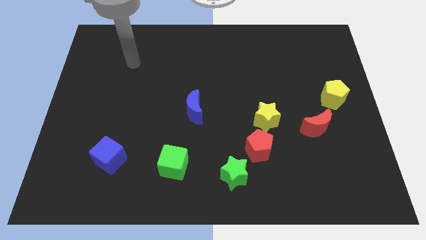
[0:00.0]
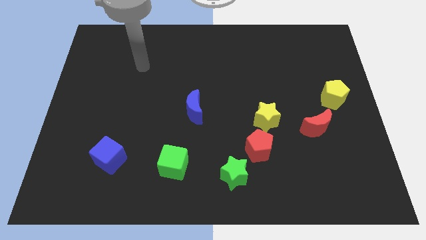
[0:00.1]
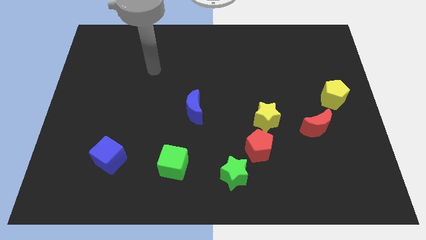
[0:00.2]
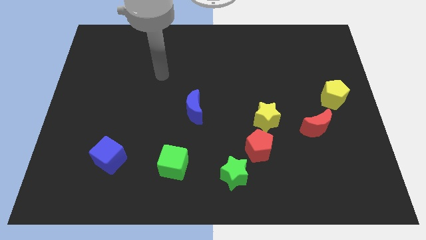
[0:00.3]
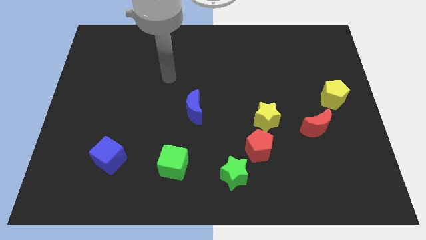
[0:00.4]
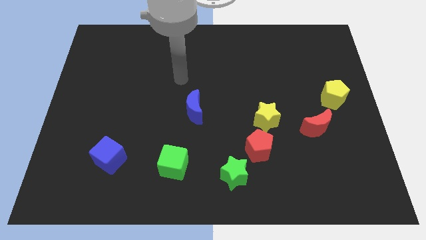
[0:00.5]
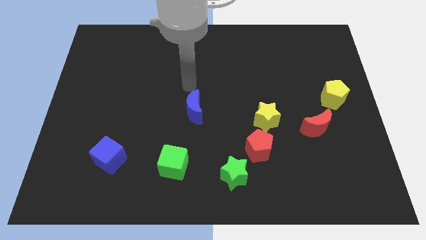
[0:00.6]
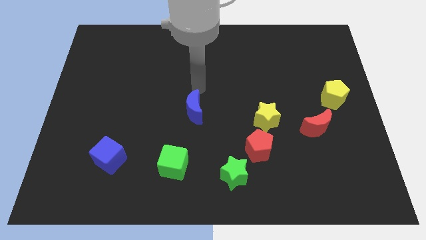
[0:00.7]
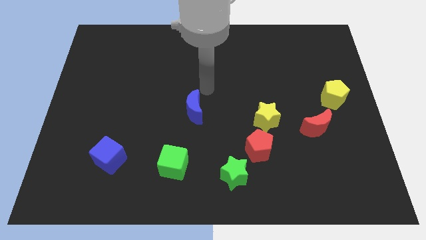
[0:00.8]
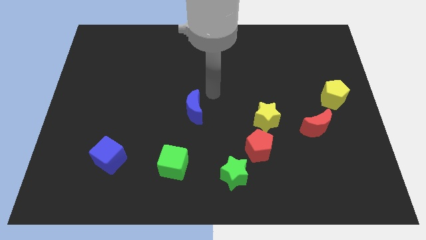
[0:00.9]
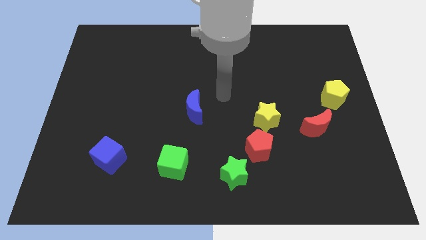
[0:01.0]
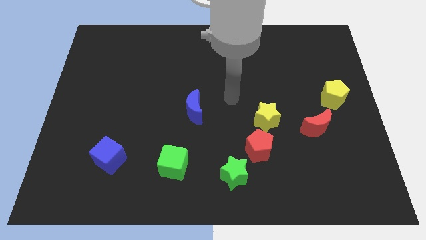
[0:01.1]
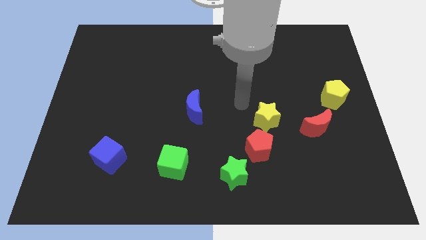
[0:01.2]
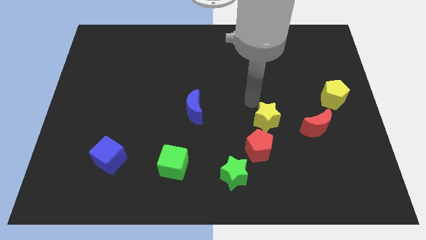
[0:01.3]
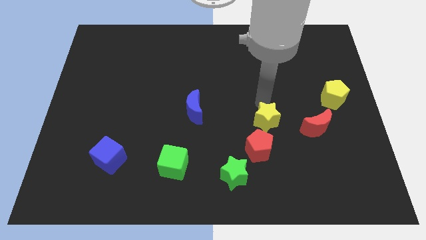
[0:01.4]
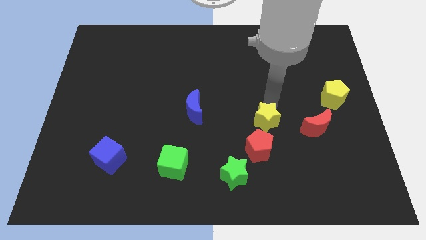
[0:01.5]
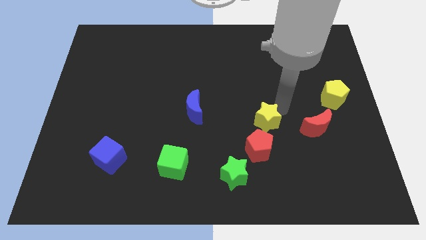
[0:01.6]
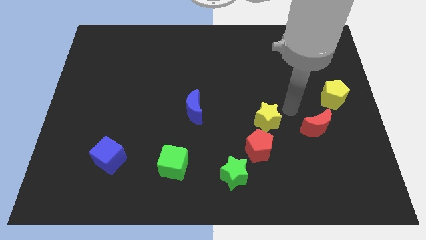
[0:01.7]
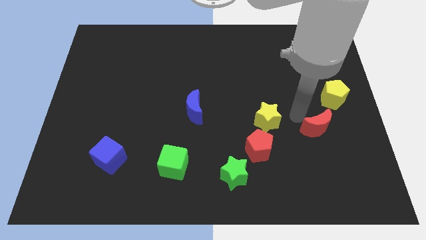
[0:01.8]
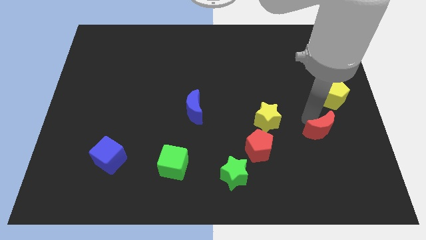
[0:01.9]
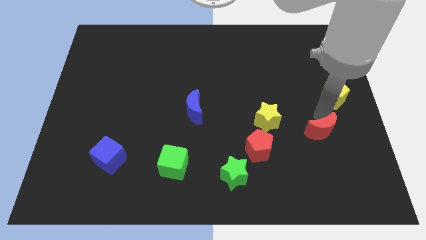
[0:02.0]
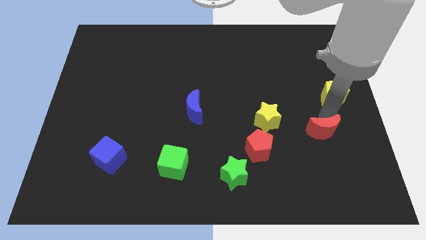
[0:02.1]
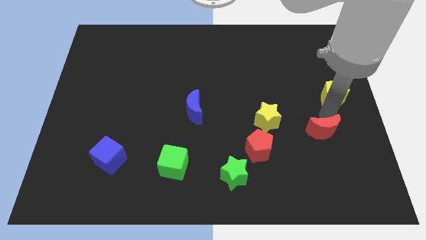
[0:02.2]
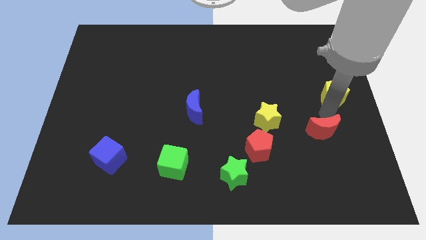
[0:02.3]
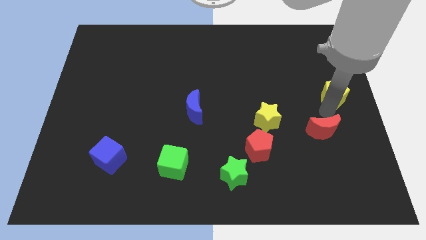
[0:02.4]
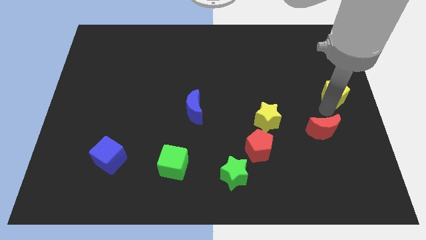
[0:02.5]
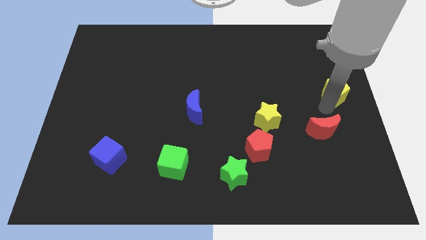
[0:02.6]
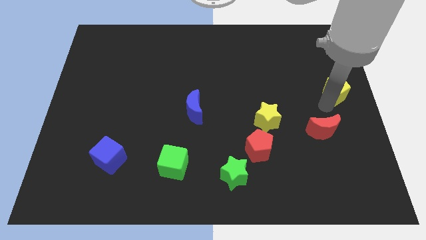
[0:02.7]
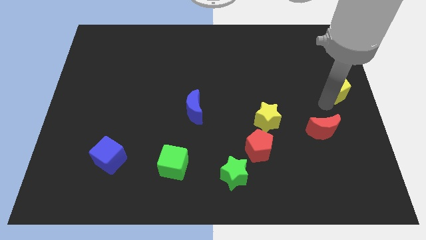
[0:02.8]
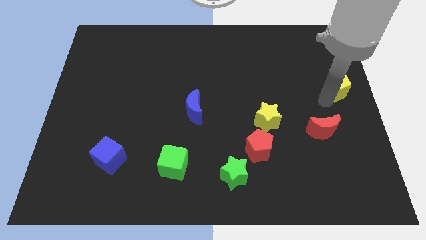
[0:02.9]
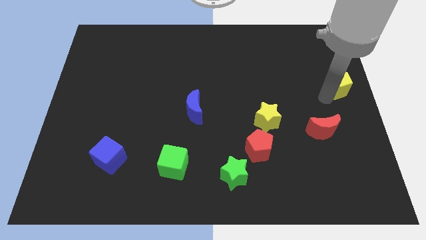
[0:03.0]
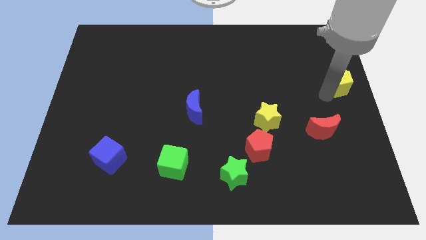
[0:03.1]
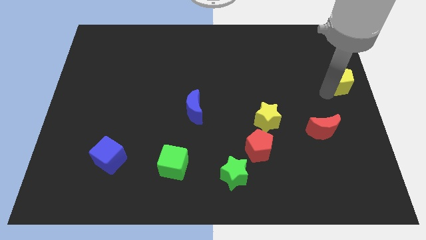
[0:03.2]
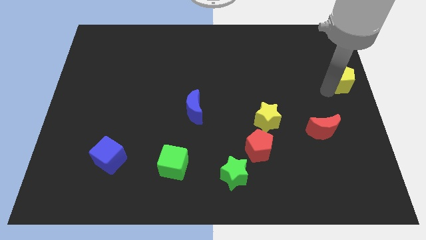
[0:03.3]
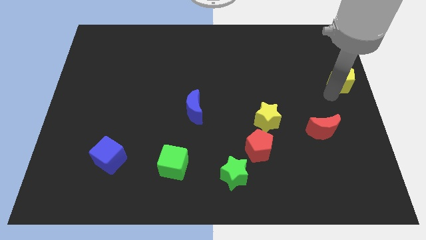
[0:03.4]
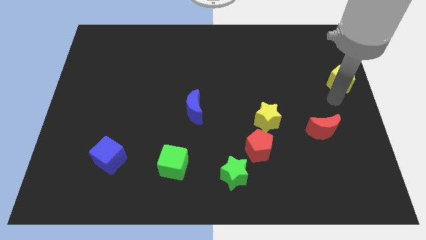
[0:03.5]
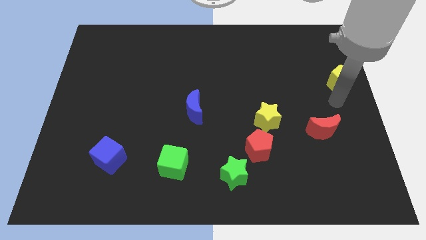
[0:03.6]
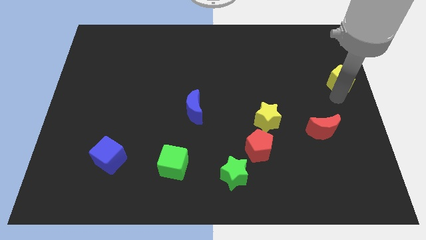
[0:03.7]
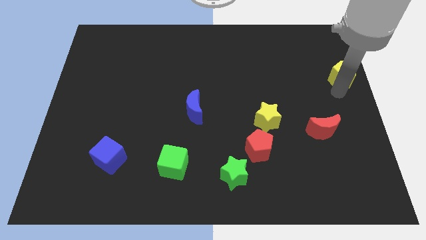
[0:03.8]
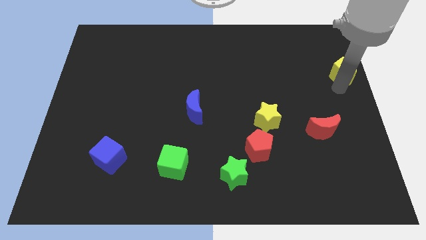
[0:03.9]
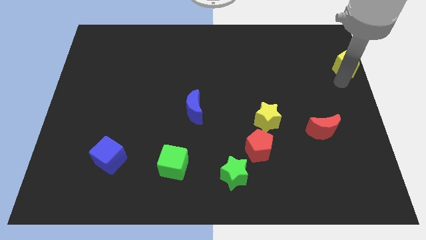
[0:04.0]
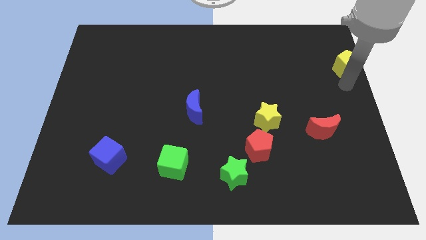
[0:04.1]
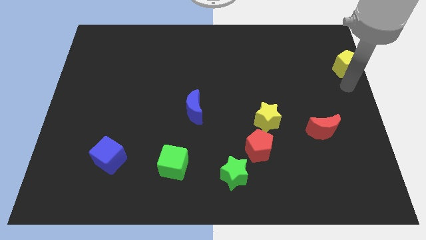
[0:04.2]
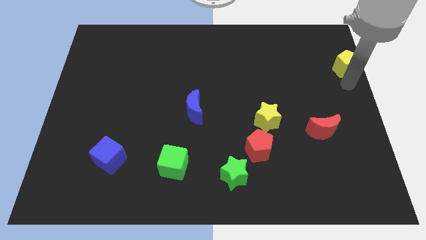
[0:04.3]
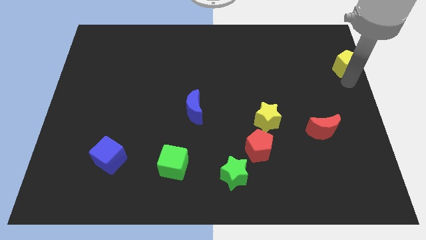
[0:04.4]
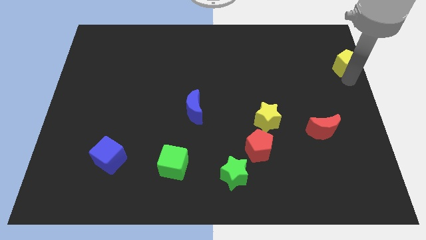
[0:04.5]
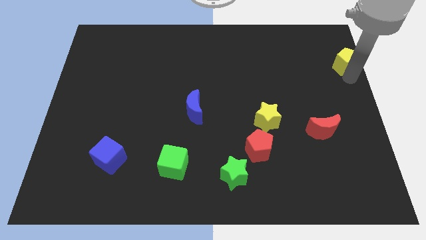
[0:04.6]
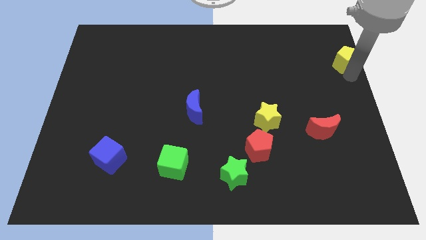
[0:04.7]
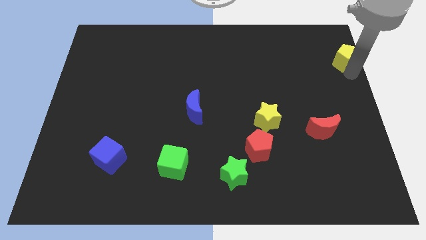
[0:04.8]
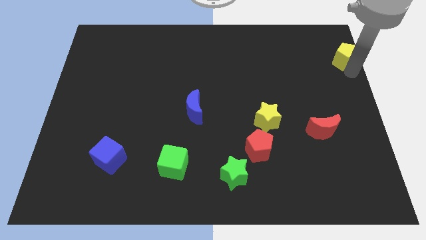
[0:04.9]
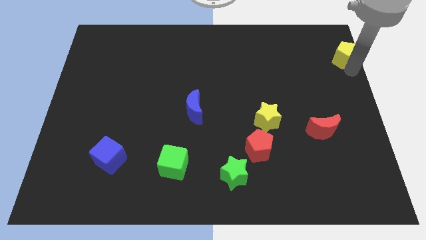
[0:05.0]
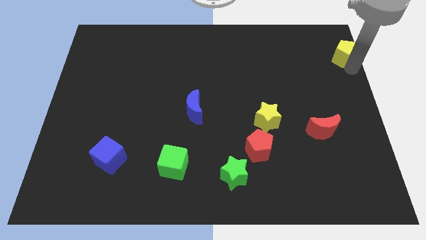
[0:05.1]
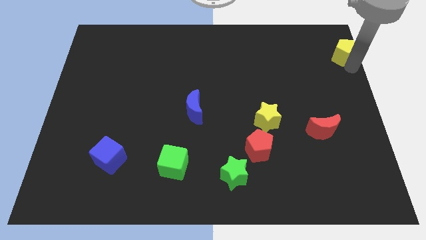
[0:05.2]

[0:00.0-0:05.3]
move the yellow pentagon to the upper right corner

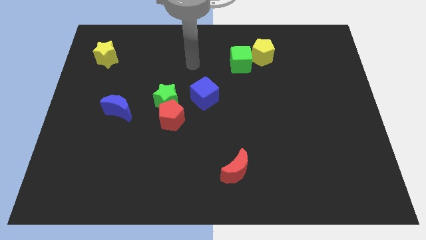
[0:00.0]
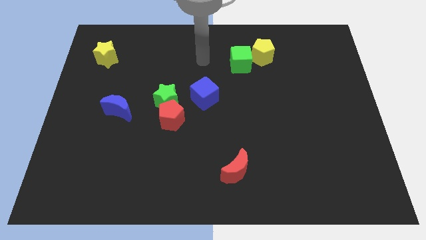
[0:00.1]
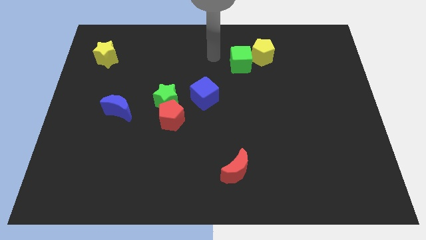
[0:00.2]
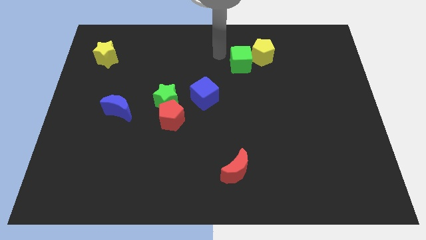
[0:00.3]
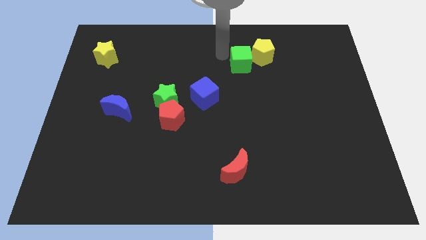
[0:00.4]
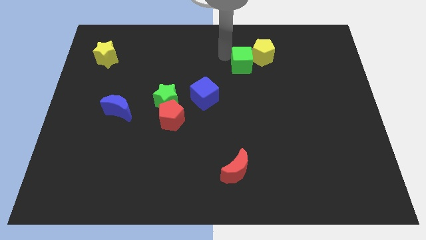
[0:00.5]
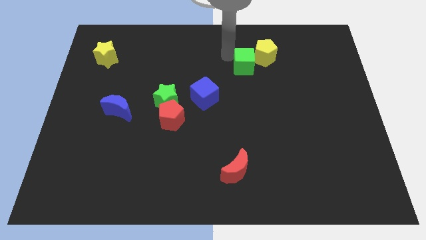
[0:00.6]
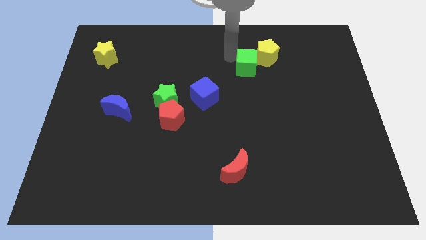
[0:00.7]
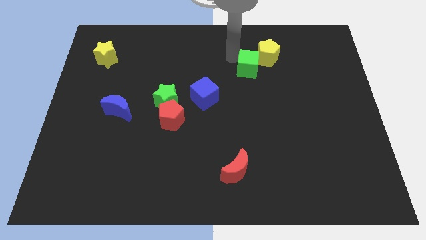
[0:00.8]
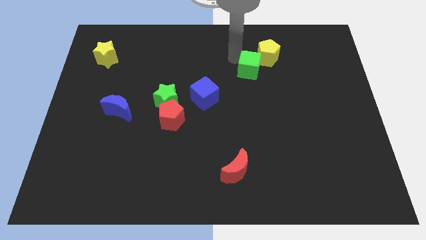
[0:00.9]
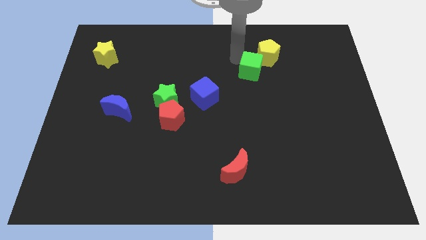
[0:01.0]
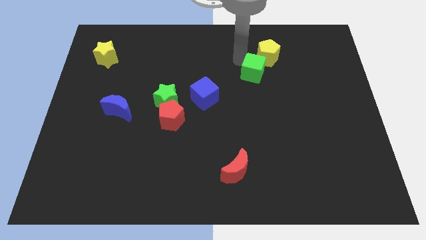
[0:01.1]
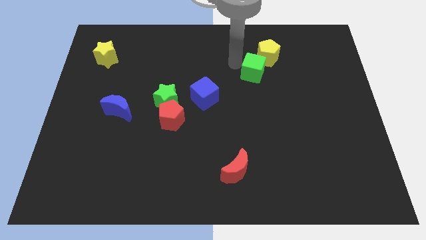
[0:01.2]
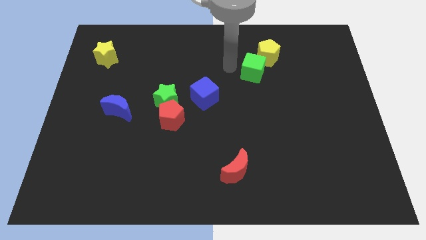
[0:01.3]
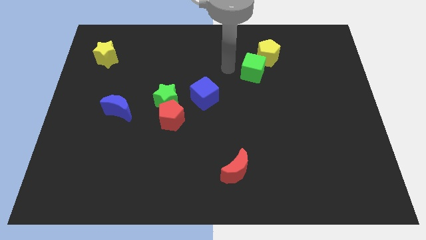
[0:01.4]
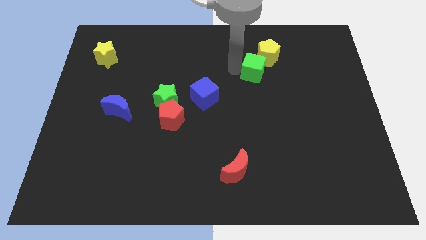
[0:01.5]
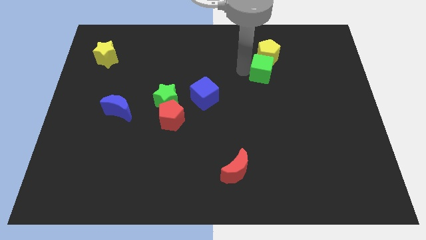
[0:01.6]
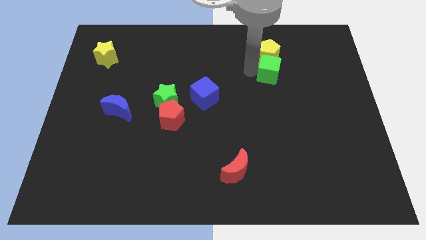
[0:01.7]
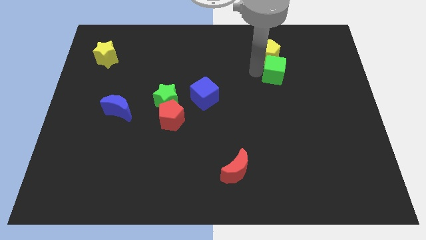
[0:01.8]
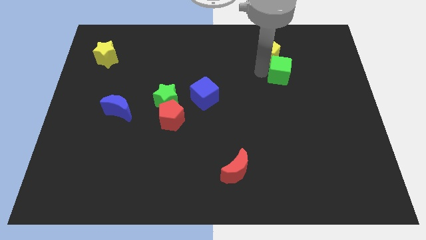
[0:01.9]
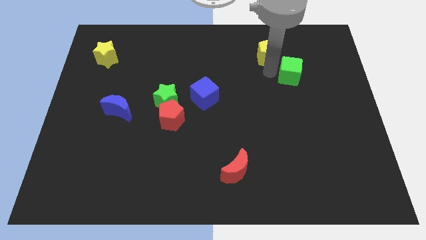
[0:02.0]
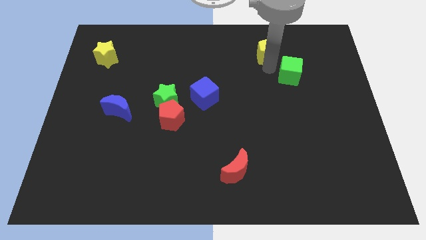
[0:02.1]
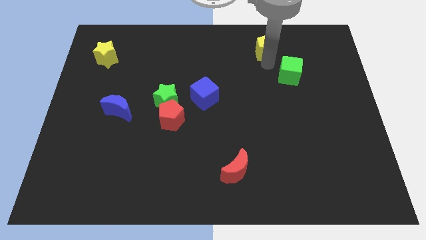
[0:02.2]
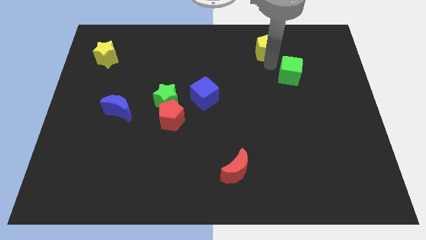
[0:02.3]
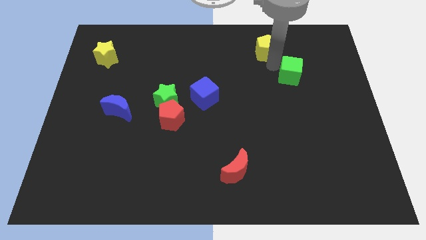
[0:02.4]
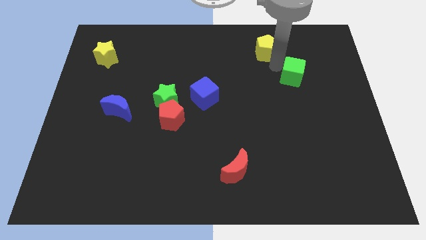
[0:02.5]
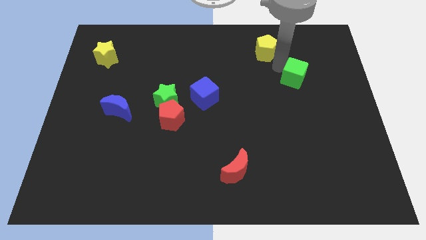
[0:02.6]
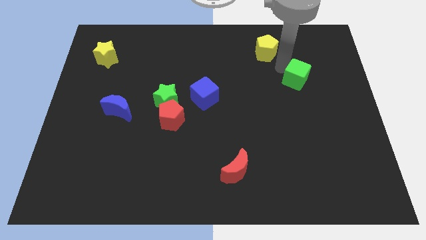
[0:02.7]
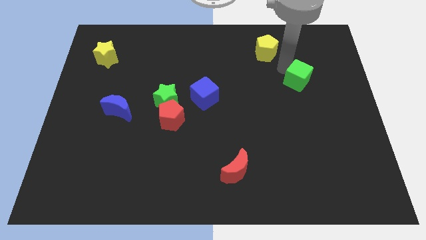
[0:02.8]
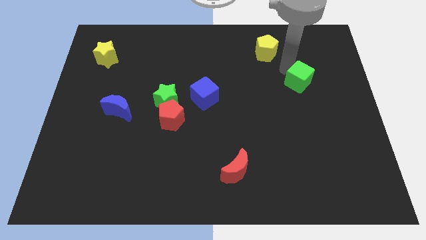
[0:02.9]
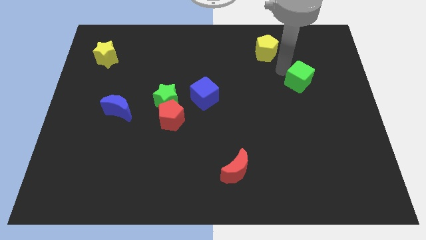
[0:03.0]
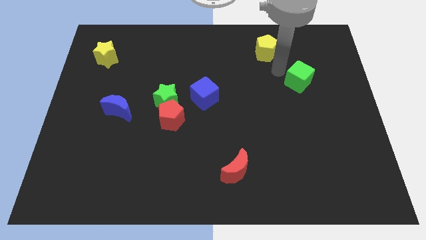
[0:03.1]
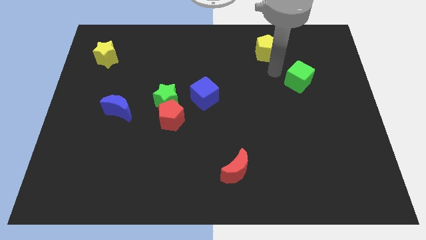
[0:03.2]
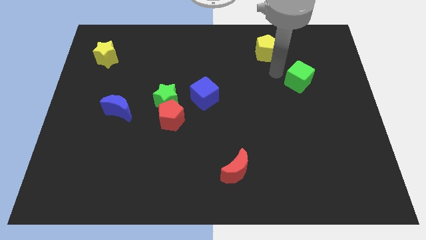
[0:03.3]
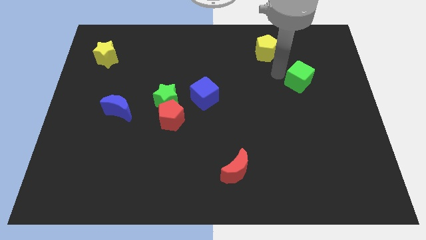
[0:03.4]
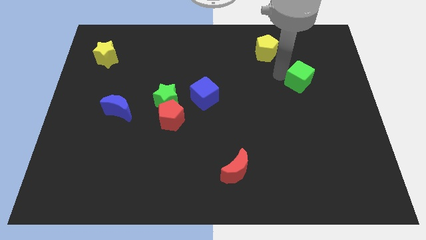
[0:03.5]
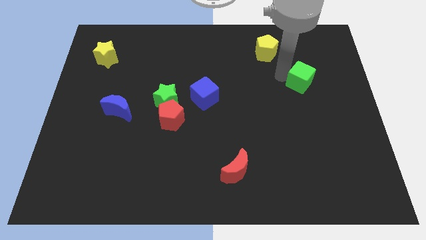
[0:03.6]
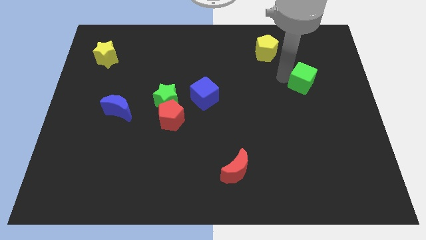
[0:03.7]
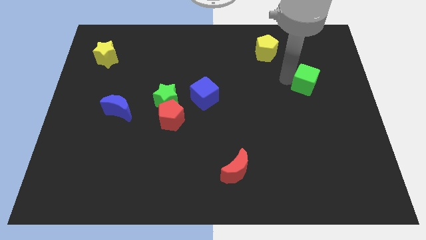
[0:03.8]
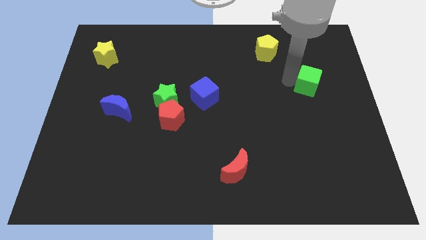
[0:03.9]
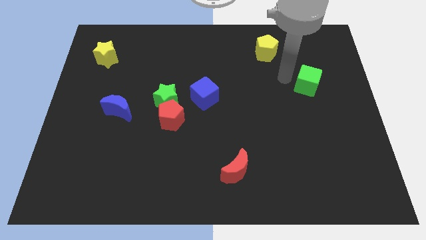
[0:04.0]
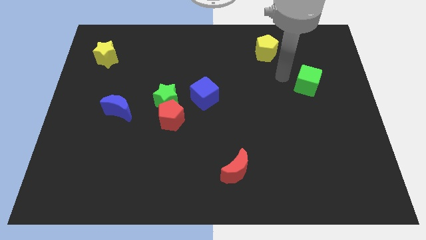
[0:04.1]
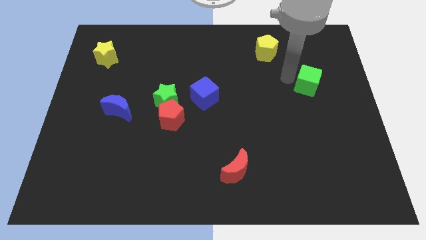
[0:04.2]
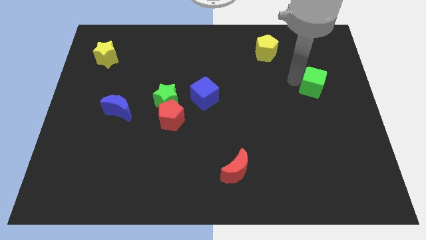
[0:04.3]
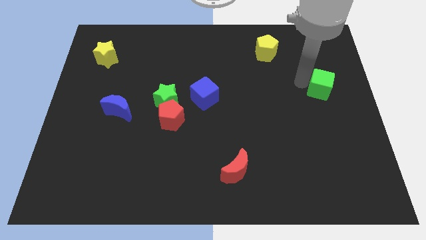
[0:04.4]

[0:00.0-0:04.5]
move the green cube to the right side
